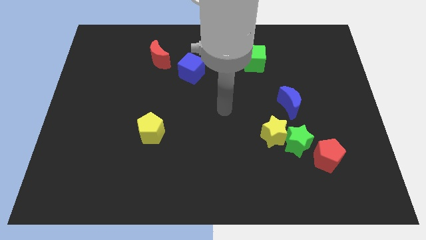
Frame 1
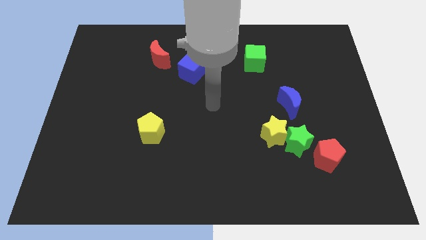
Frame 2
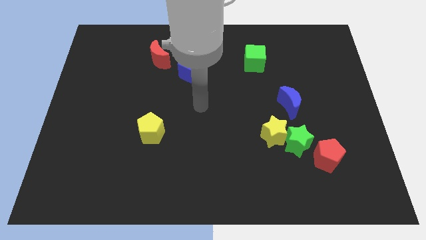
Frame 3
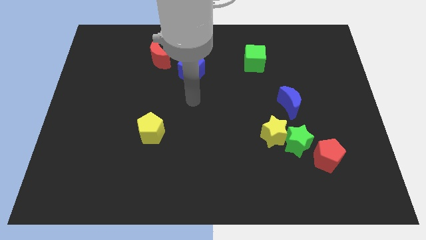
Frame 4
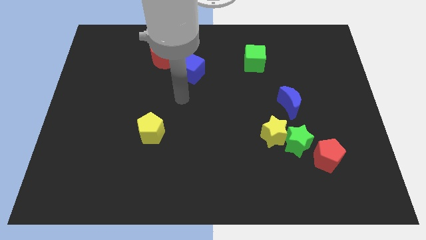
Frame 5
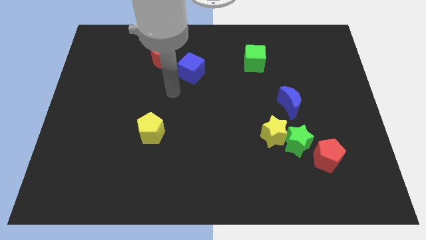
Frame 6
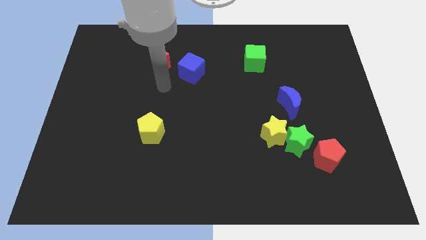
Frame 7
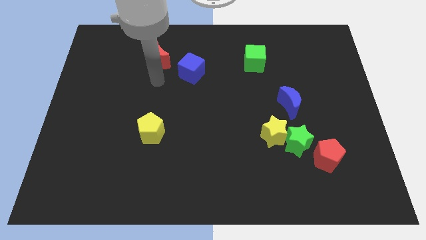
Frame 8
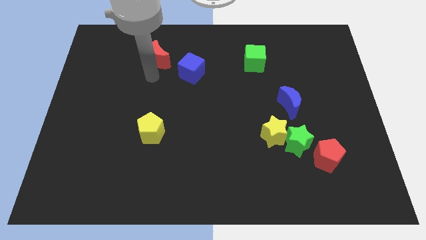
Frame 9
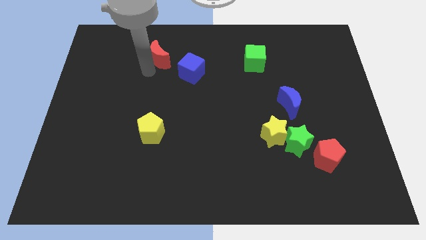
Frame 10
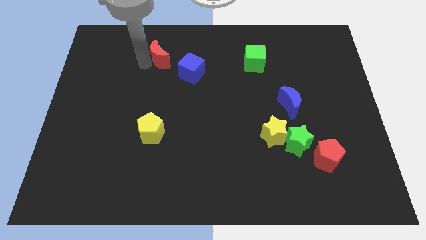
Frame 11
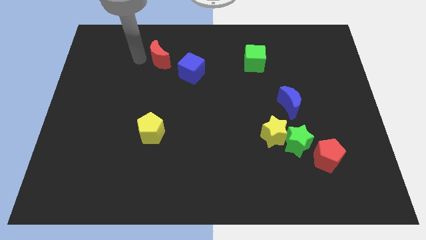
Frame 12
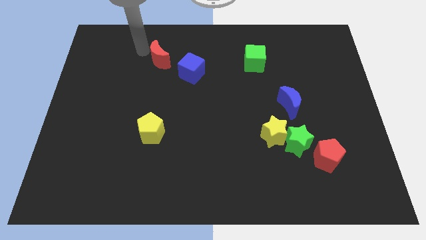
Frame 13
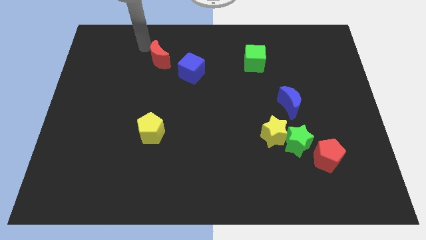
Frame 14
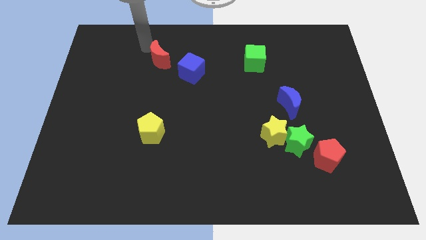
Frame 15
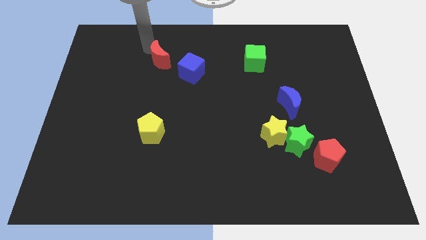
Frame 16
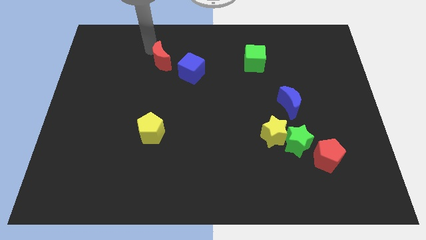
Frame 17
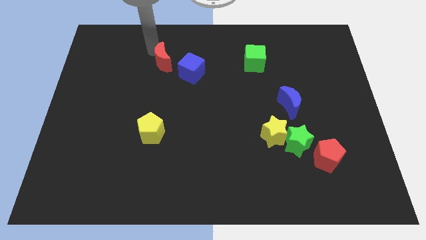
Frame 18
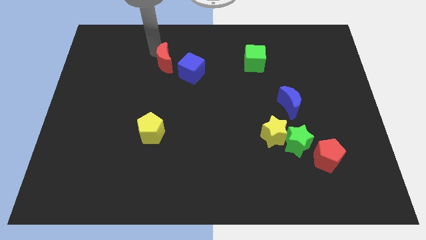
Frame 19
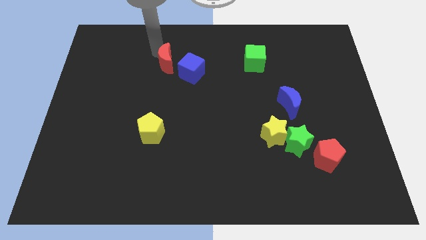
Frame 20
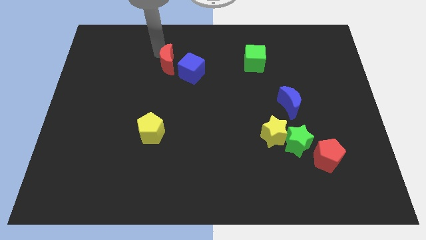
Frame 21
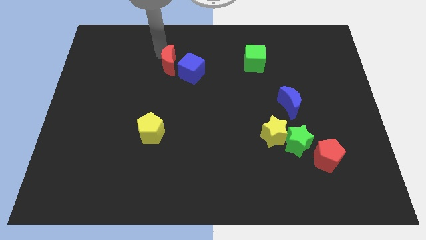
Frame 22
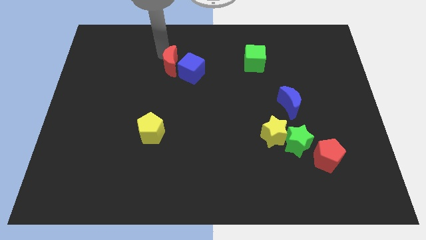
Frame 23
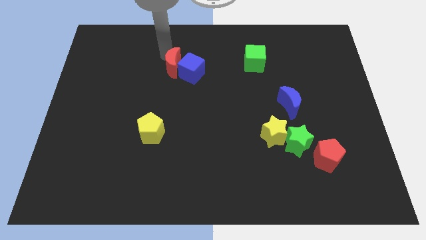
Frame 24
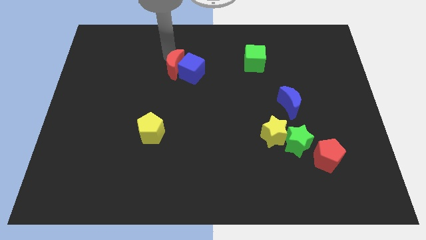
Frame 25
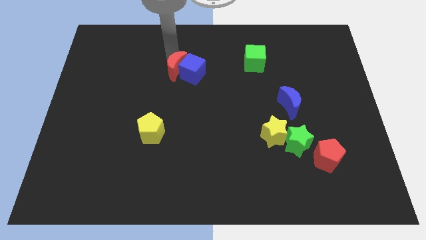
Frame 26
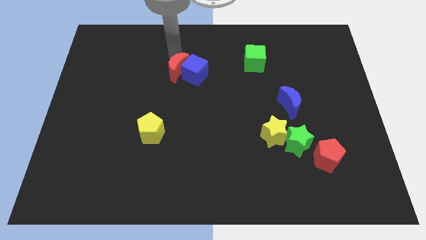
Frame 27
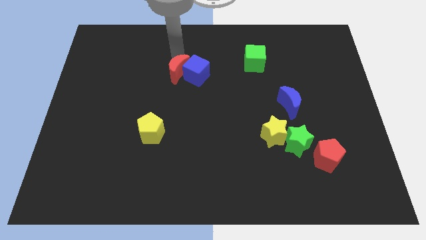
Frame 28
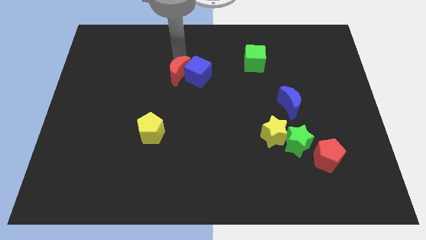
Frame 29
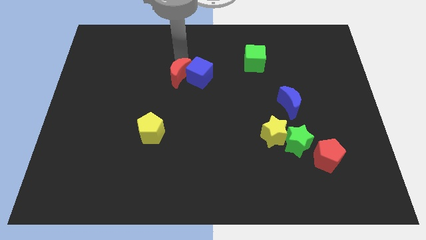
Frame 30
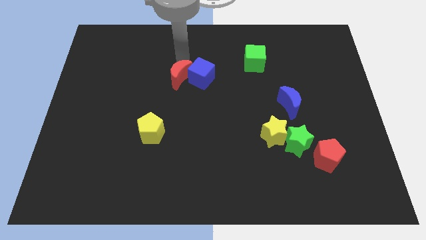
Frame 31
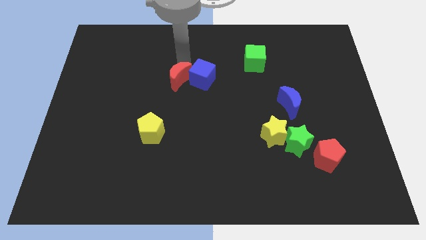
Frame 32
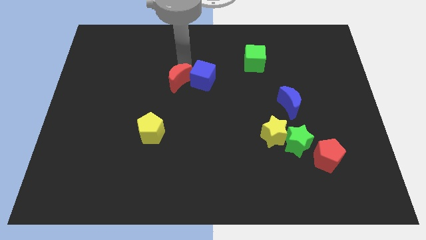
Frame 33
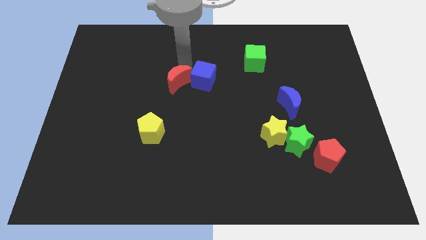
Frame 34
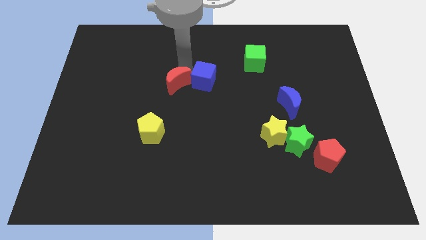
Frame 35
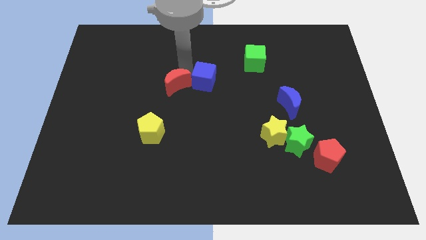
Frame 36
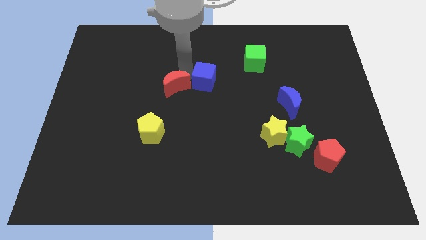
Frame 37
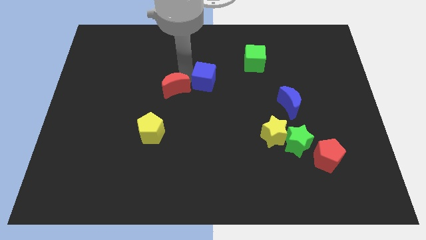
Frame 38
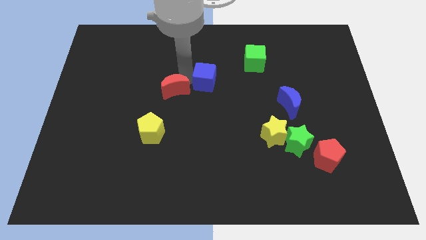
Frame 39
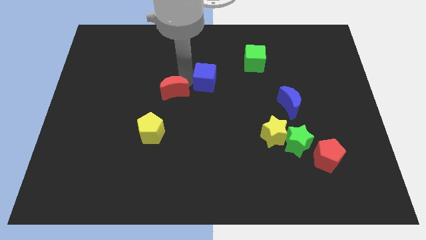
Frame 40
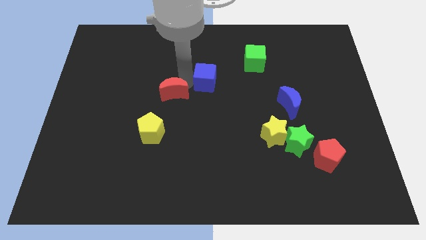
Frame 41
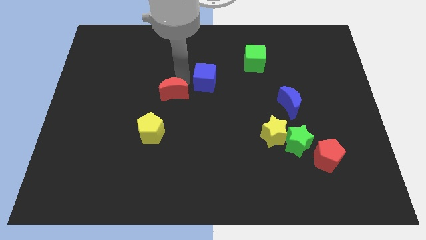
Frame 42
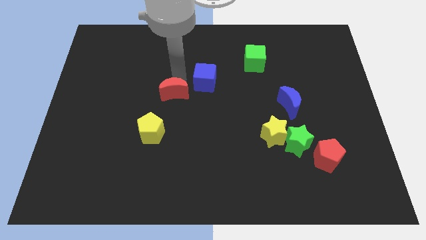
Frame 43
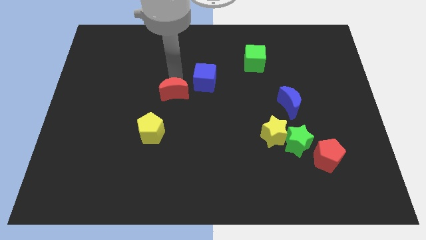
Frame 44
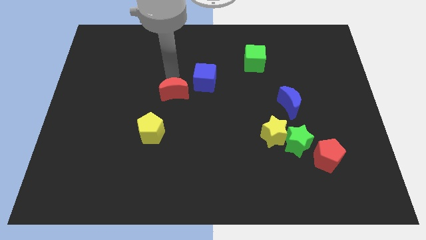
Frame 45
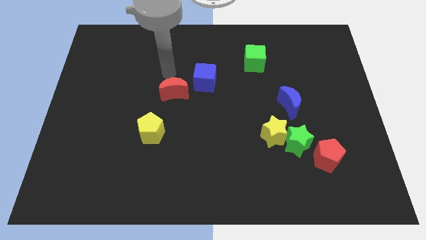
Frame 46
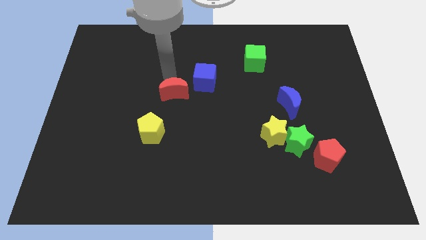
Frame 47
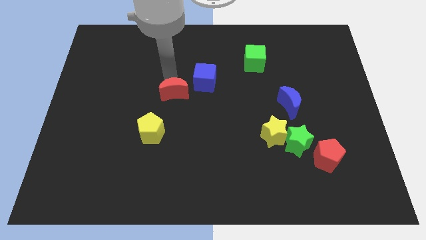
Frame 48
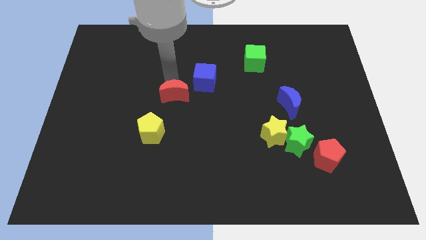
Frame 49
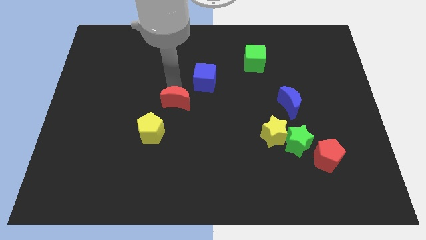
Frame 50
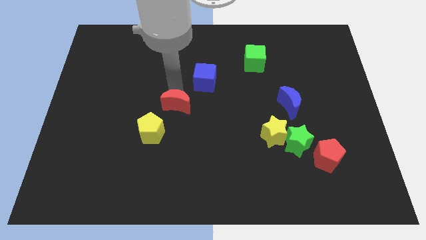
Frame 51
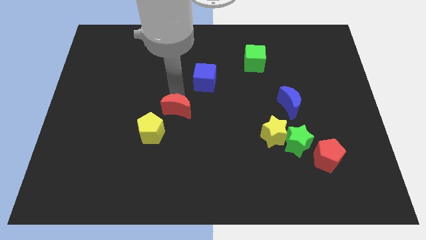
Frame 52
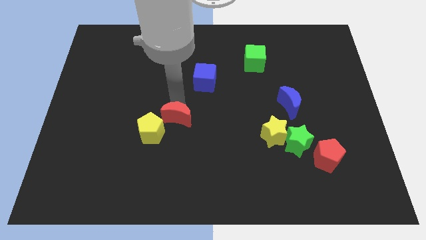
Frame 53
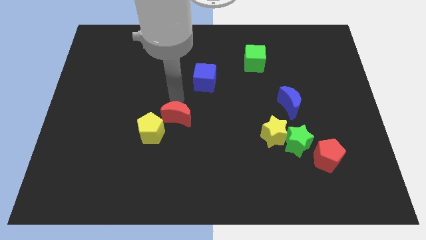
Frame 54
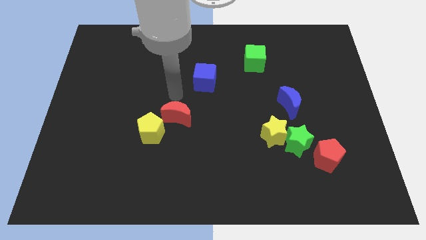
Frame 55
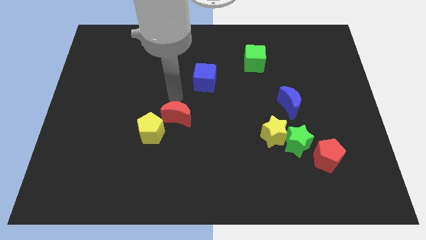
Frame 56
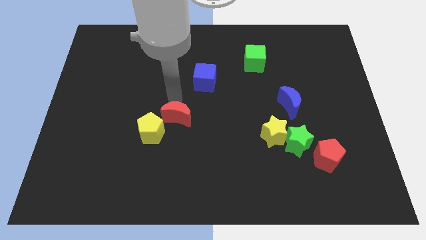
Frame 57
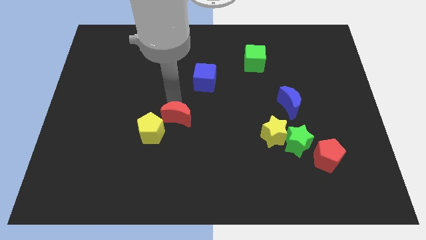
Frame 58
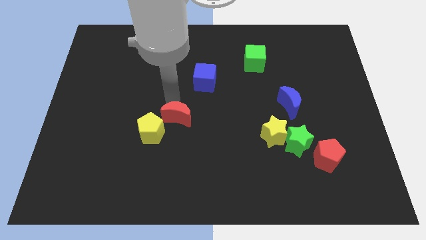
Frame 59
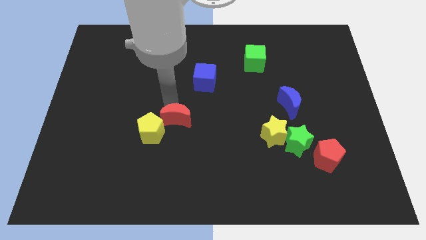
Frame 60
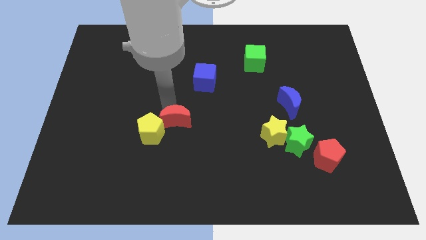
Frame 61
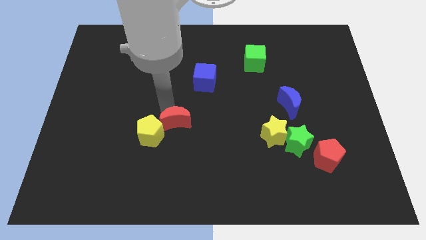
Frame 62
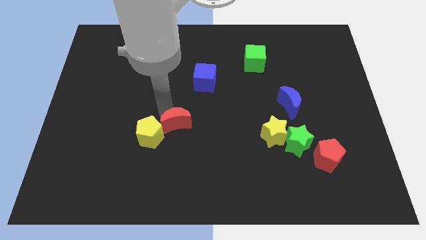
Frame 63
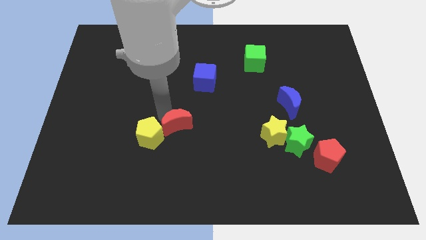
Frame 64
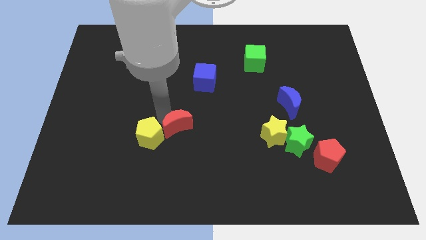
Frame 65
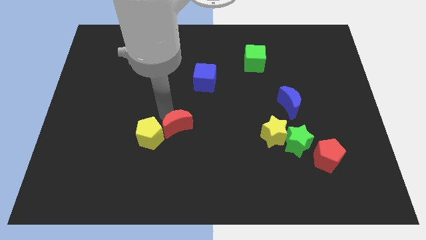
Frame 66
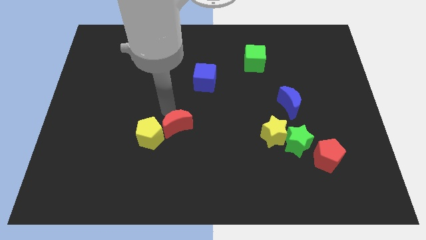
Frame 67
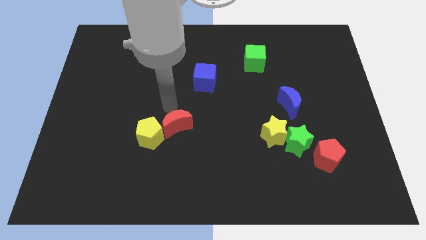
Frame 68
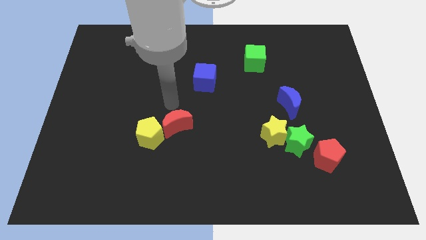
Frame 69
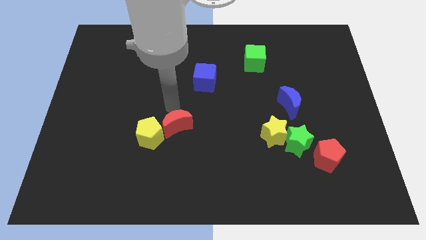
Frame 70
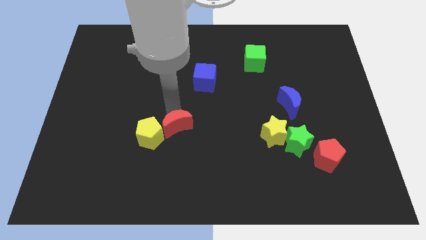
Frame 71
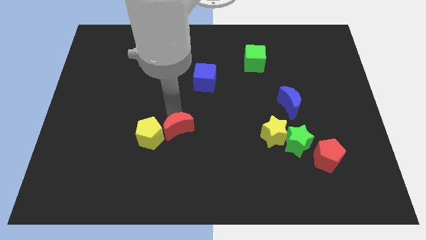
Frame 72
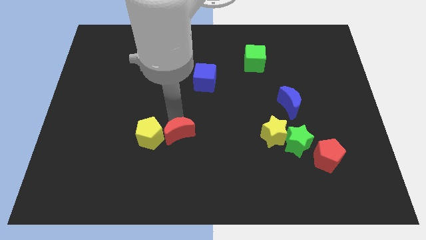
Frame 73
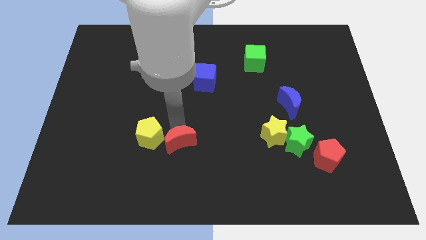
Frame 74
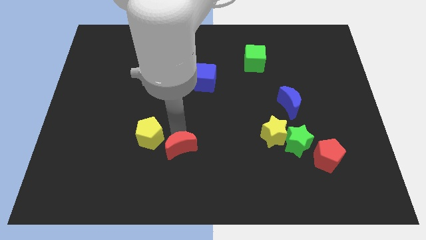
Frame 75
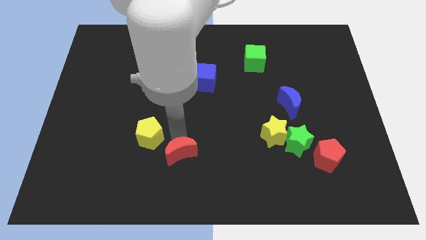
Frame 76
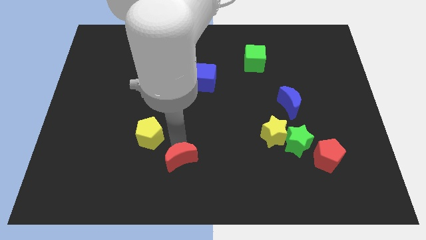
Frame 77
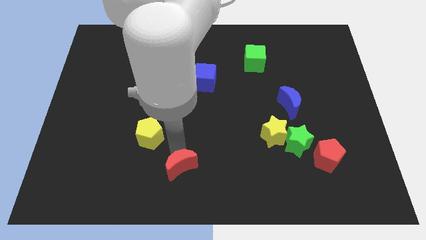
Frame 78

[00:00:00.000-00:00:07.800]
slide the red moon to the bottom
